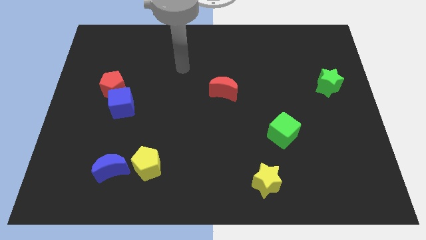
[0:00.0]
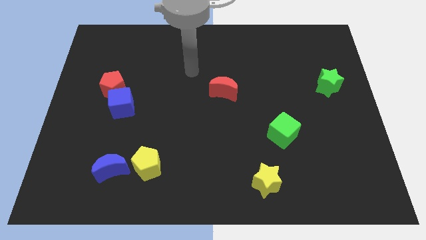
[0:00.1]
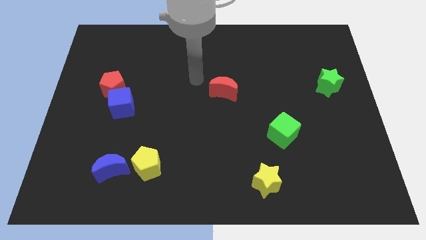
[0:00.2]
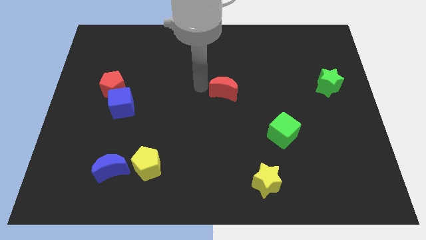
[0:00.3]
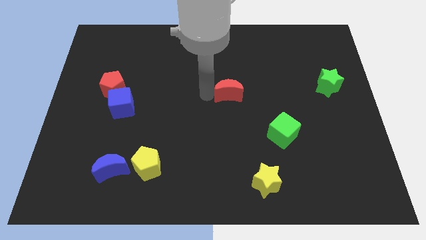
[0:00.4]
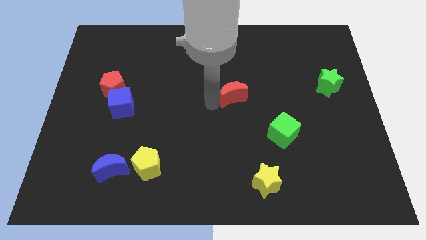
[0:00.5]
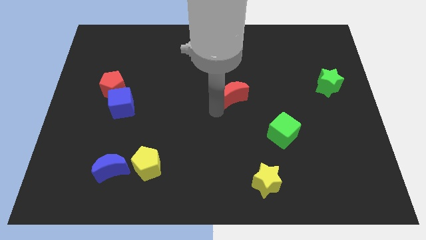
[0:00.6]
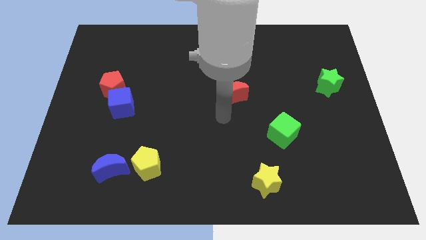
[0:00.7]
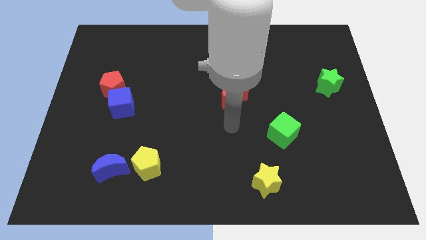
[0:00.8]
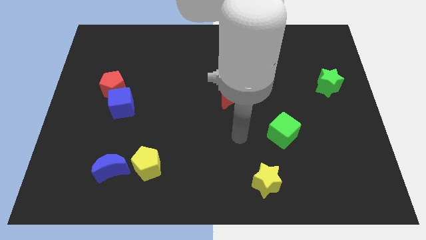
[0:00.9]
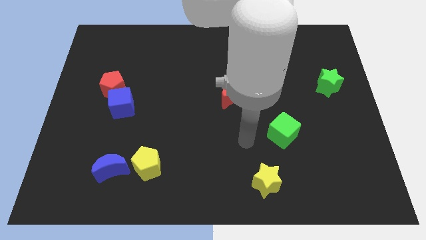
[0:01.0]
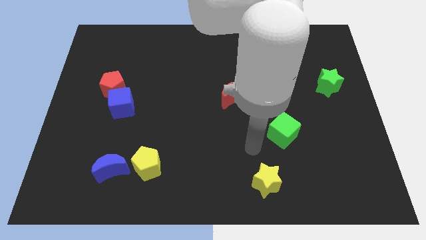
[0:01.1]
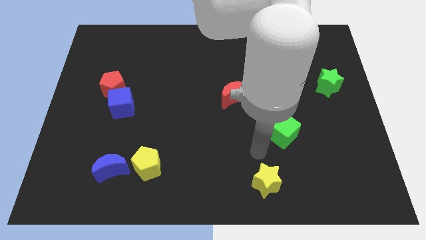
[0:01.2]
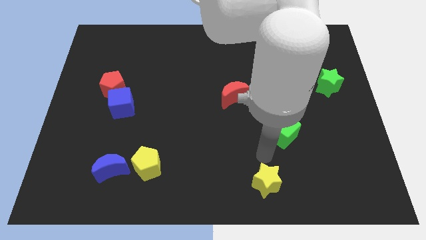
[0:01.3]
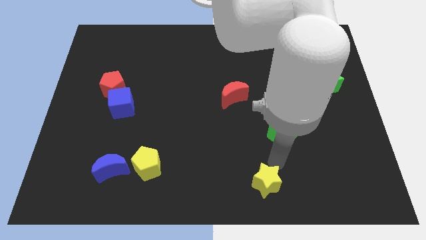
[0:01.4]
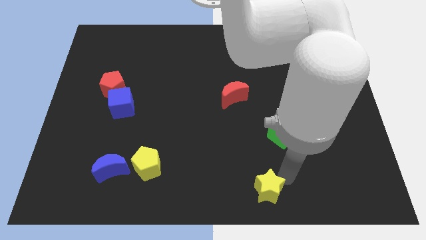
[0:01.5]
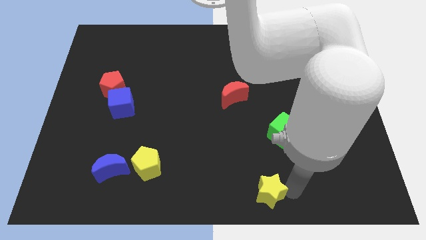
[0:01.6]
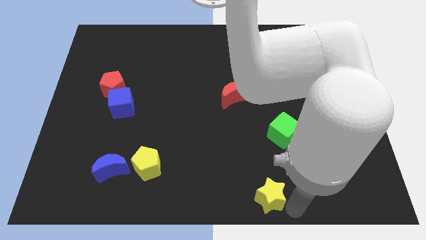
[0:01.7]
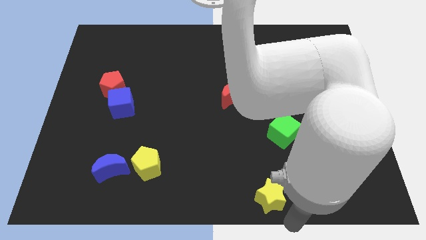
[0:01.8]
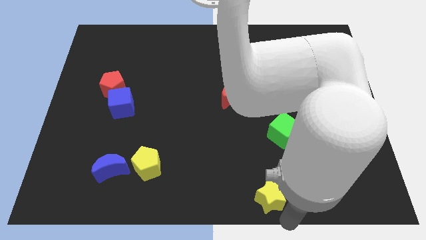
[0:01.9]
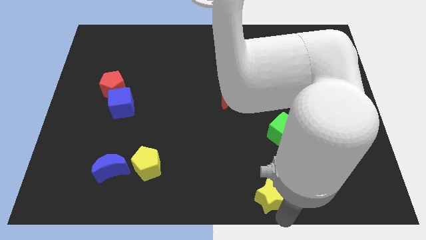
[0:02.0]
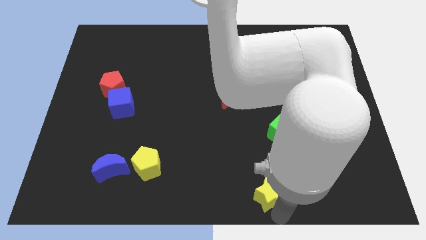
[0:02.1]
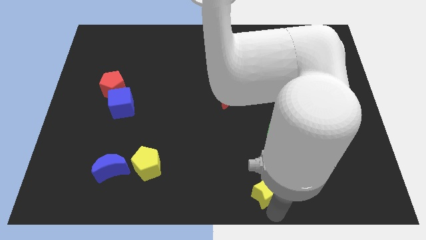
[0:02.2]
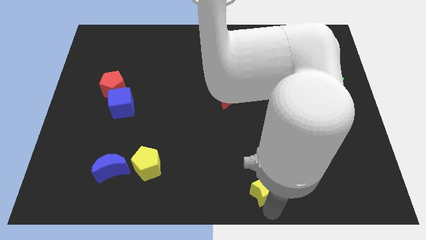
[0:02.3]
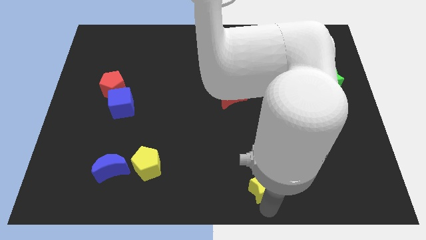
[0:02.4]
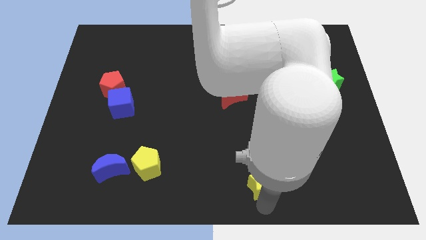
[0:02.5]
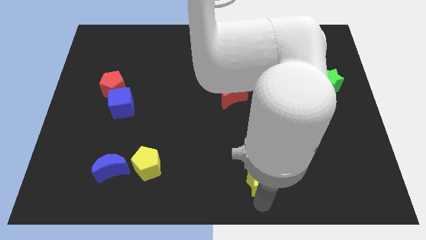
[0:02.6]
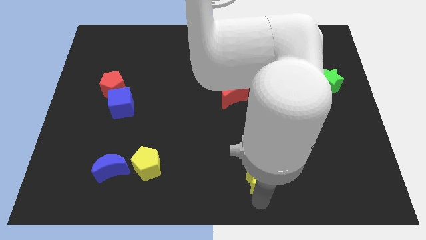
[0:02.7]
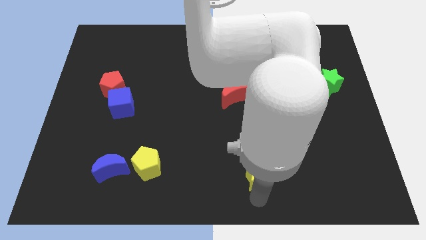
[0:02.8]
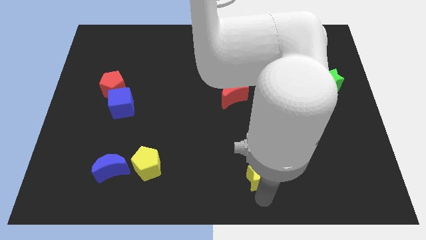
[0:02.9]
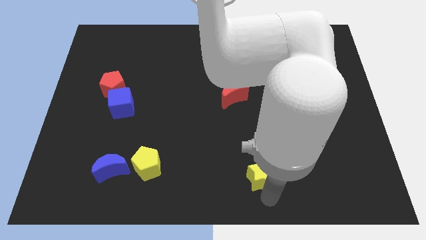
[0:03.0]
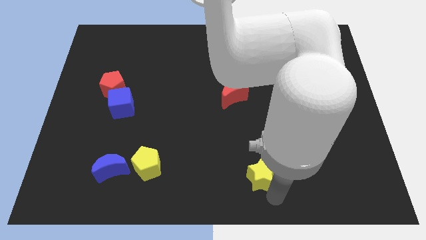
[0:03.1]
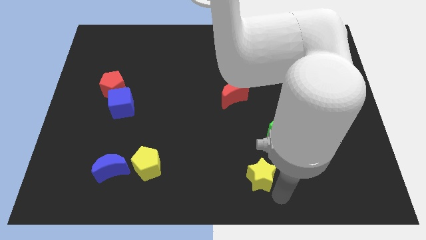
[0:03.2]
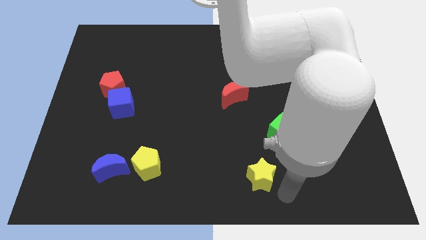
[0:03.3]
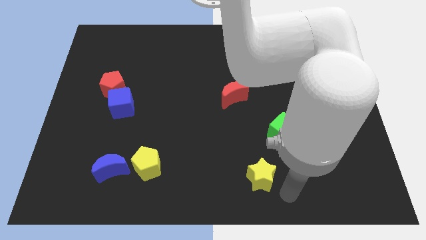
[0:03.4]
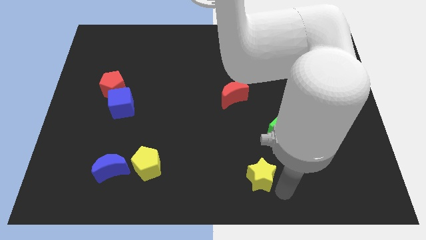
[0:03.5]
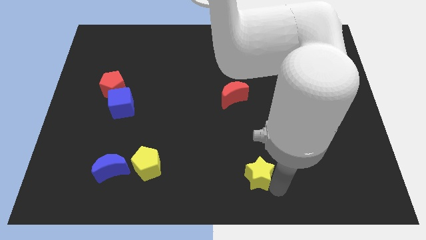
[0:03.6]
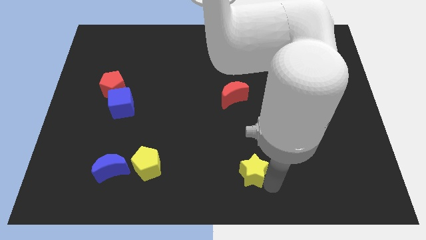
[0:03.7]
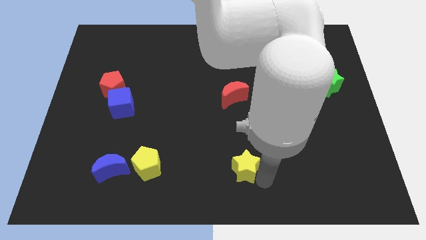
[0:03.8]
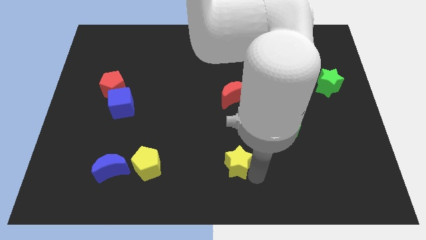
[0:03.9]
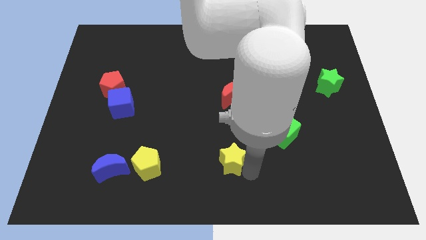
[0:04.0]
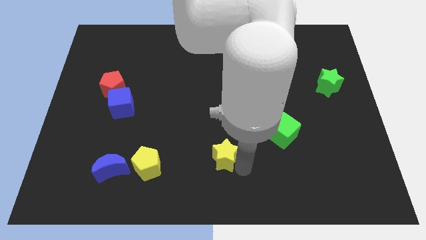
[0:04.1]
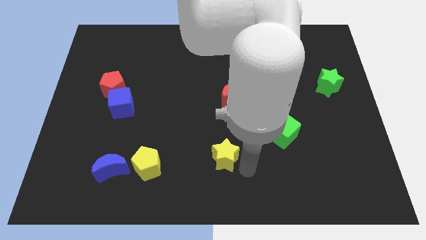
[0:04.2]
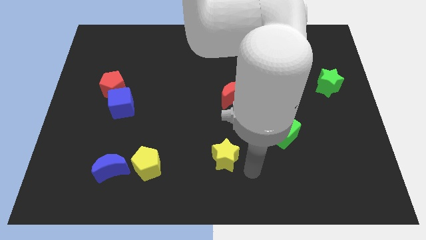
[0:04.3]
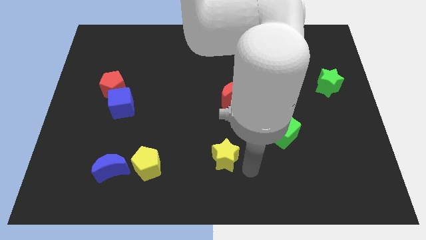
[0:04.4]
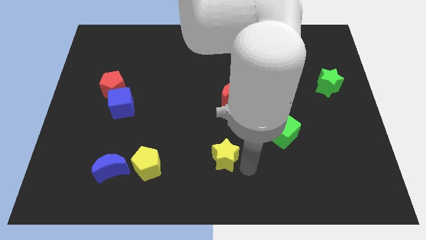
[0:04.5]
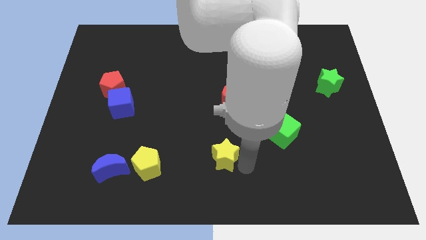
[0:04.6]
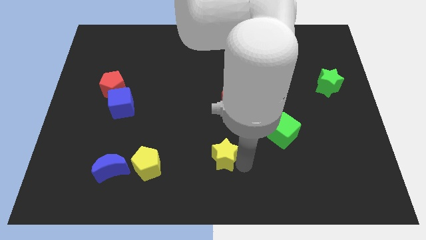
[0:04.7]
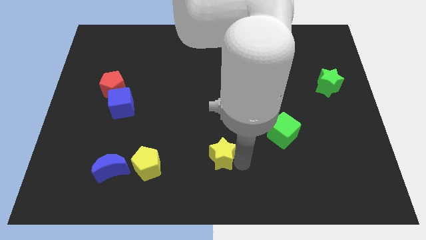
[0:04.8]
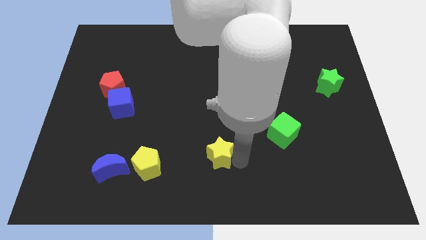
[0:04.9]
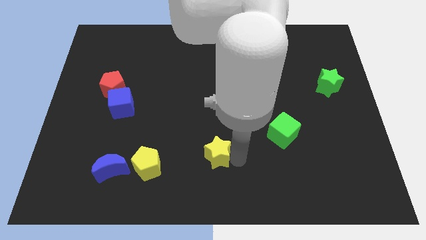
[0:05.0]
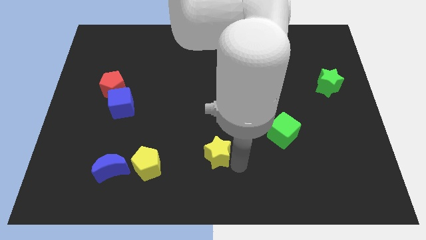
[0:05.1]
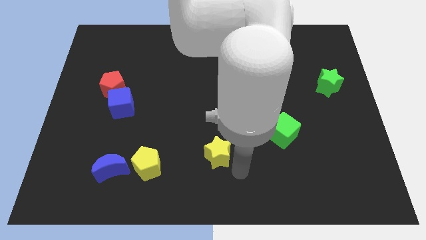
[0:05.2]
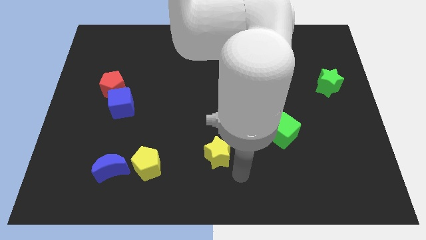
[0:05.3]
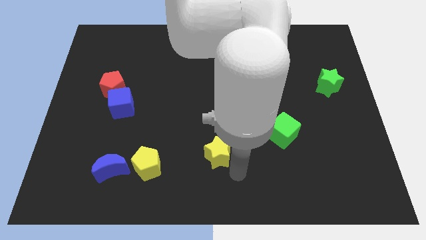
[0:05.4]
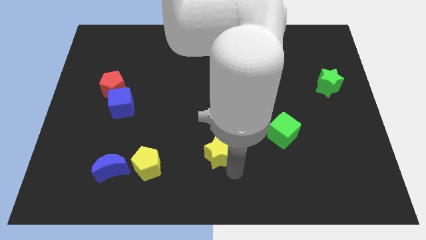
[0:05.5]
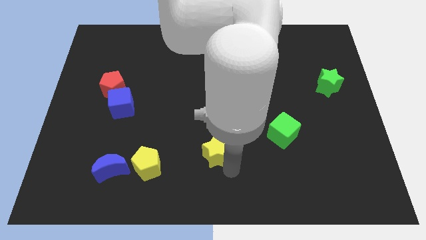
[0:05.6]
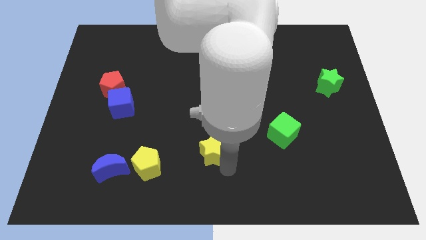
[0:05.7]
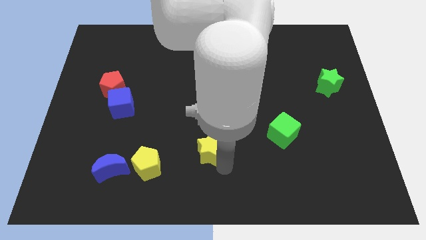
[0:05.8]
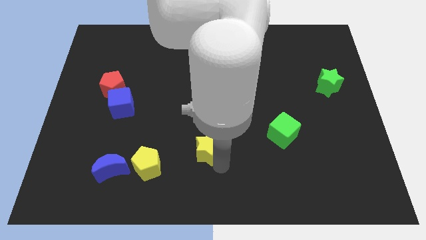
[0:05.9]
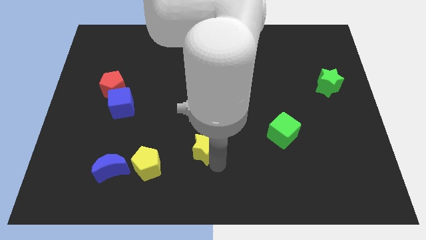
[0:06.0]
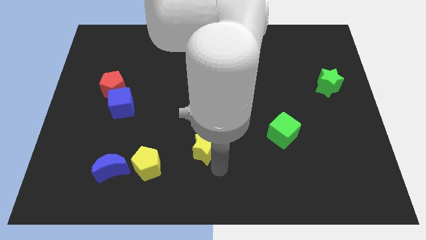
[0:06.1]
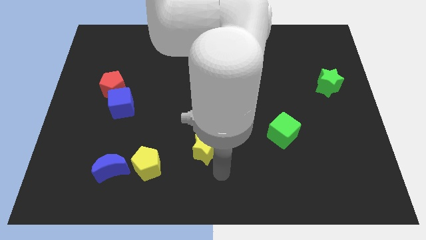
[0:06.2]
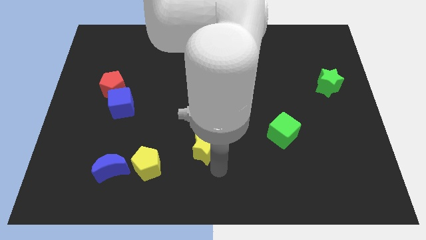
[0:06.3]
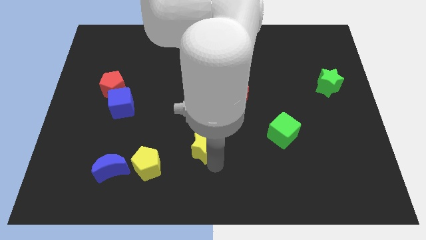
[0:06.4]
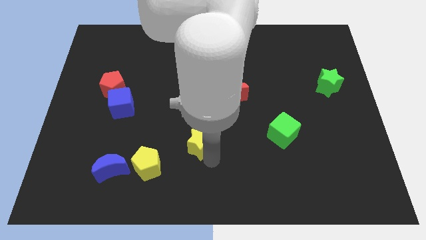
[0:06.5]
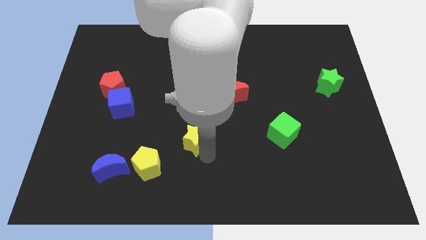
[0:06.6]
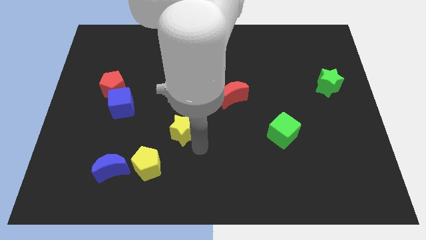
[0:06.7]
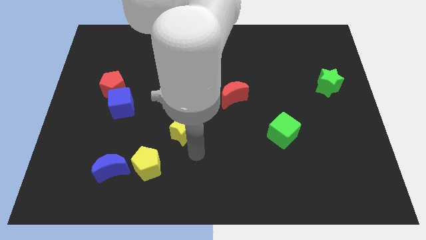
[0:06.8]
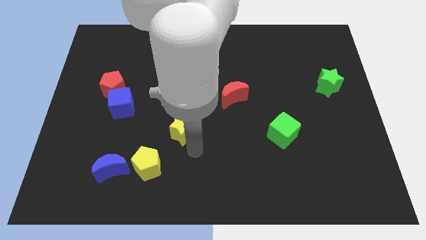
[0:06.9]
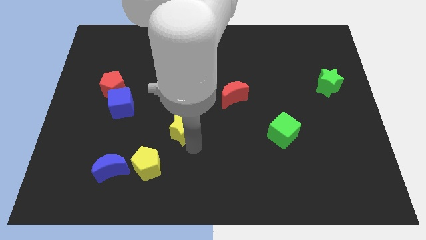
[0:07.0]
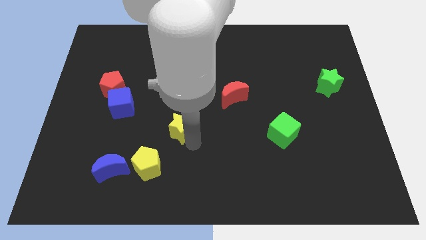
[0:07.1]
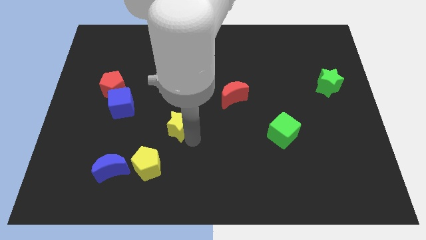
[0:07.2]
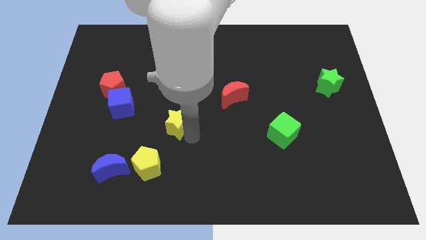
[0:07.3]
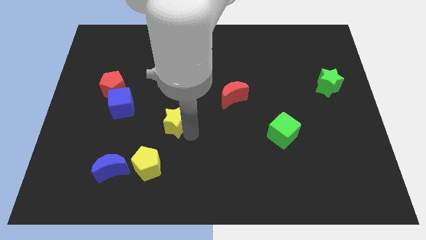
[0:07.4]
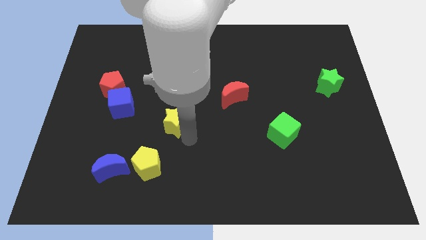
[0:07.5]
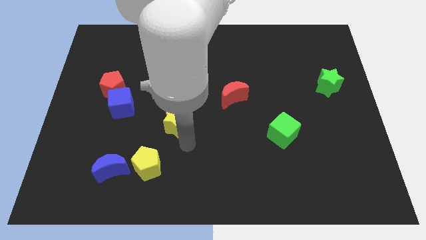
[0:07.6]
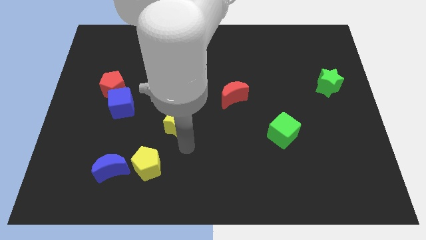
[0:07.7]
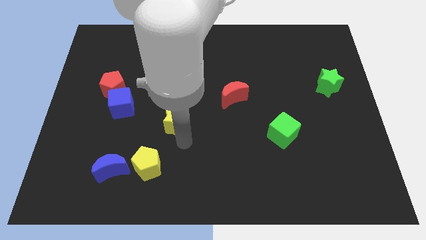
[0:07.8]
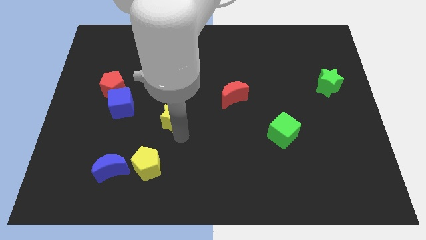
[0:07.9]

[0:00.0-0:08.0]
put the yellow star to the right of the blue cube
